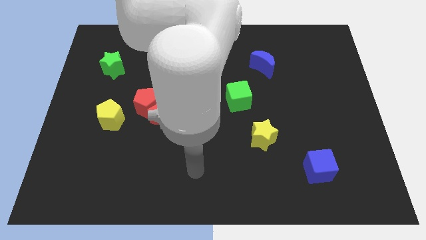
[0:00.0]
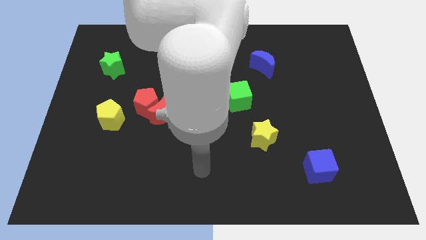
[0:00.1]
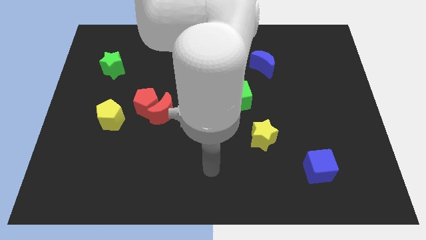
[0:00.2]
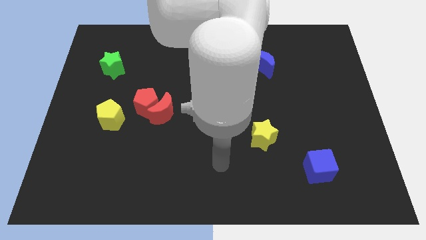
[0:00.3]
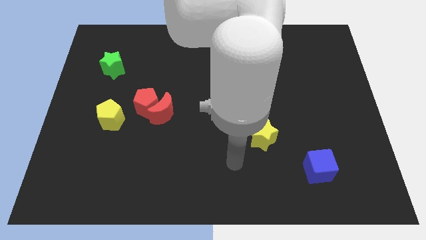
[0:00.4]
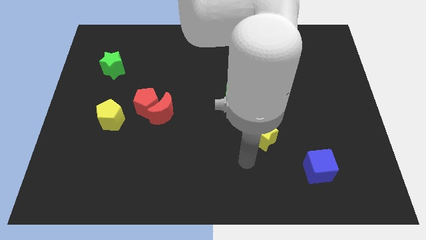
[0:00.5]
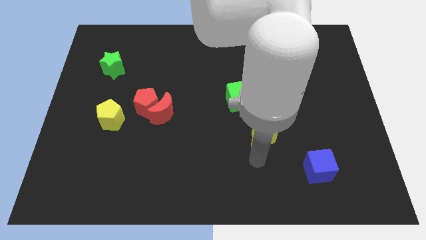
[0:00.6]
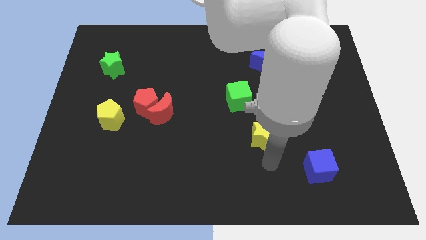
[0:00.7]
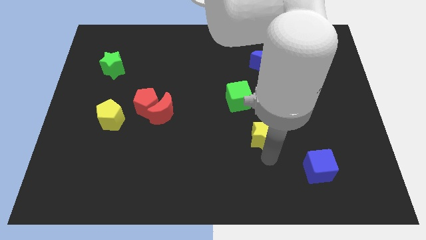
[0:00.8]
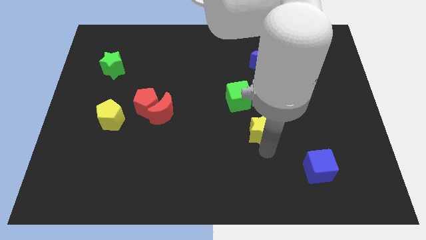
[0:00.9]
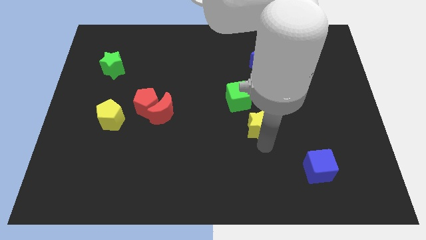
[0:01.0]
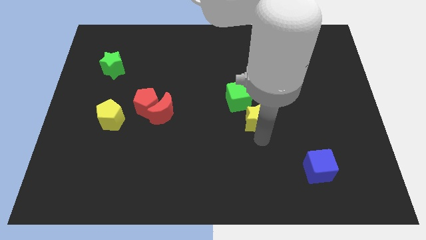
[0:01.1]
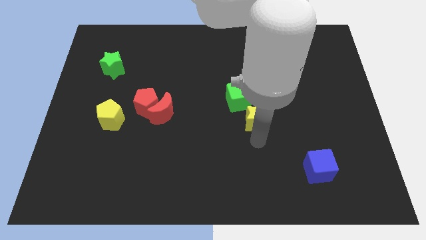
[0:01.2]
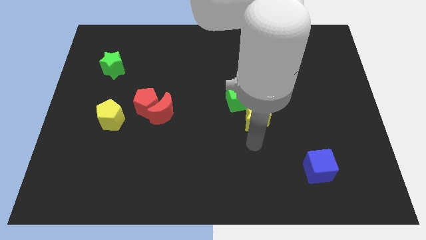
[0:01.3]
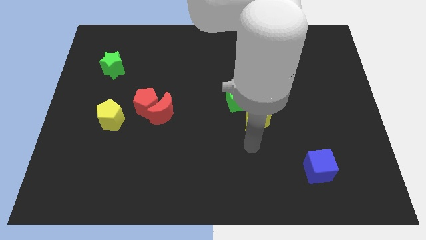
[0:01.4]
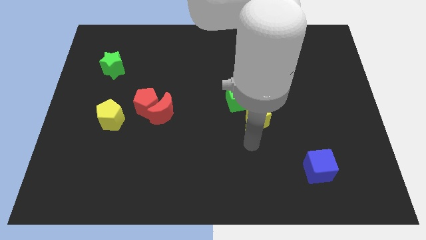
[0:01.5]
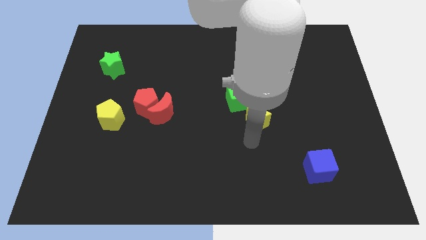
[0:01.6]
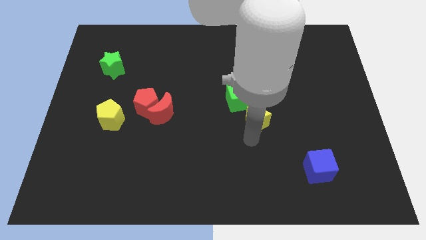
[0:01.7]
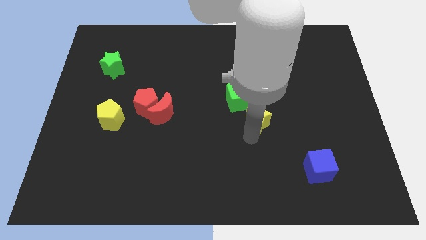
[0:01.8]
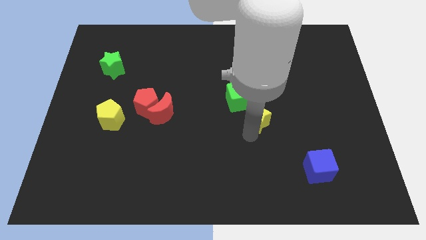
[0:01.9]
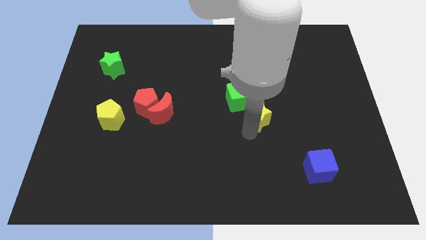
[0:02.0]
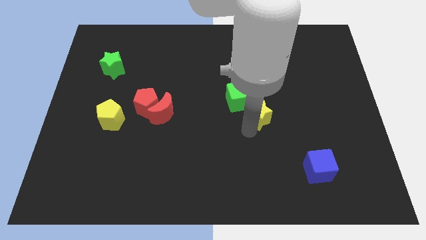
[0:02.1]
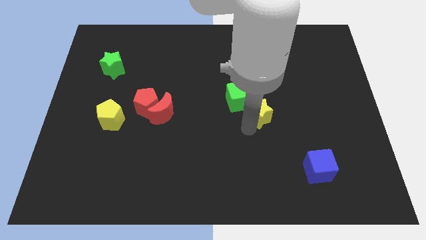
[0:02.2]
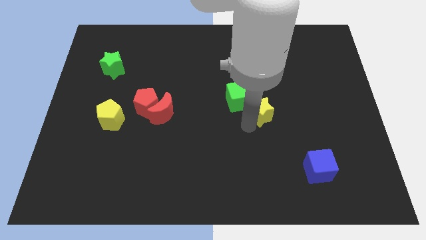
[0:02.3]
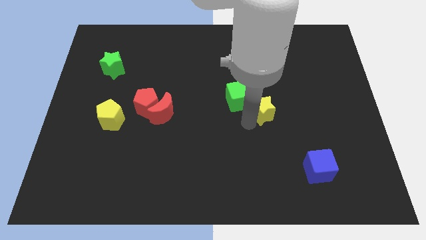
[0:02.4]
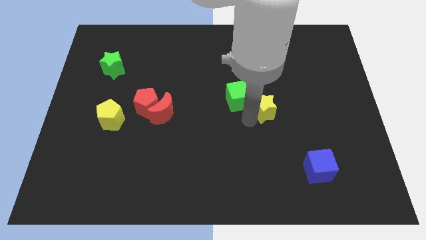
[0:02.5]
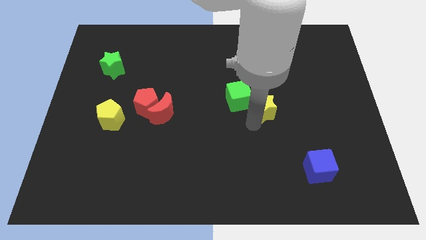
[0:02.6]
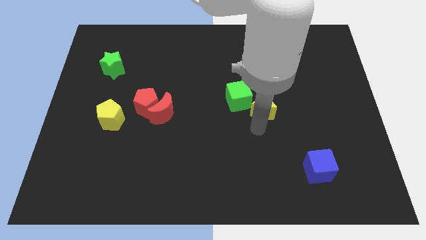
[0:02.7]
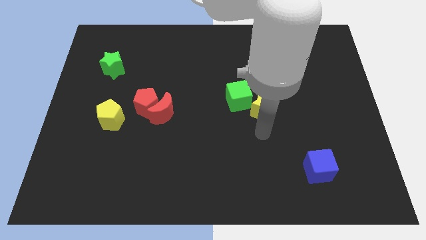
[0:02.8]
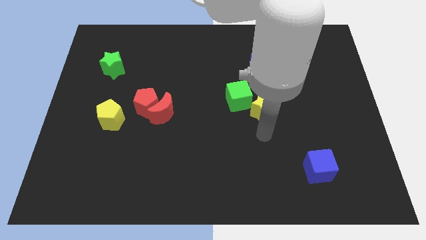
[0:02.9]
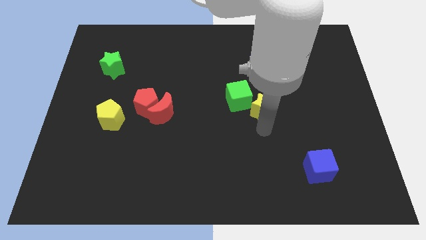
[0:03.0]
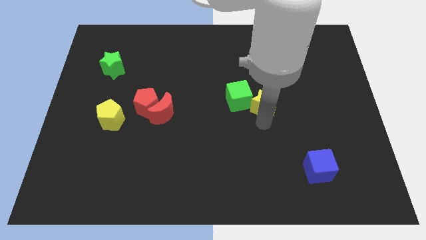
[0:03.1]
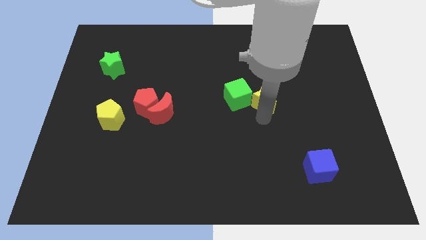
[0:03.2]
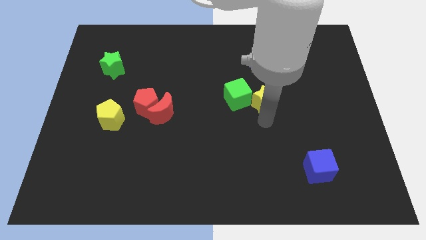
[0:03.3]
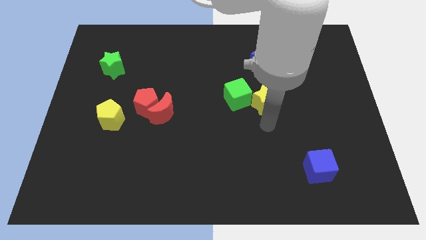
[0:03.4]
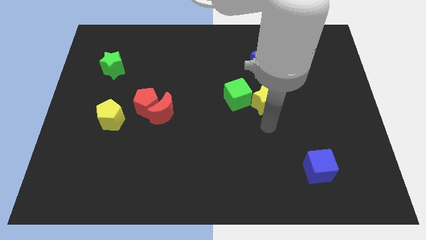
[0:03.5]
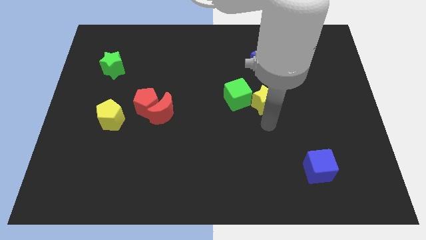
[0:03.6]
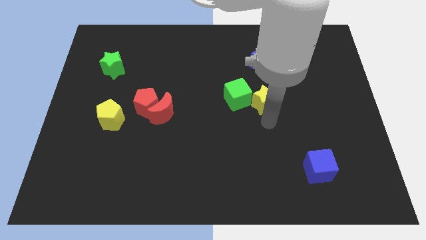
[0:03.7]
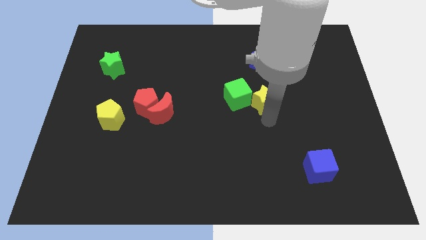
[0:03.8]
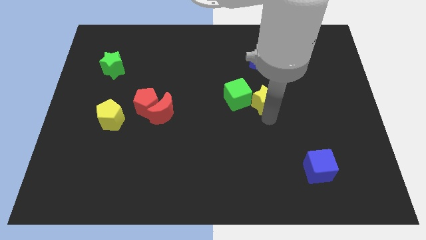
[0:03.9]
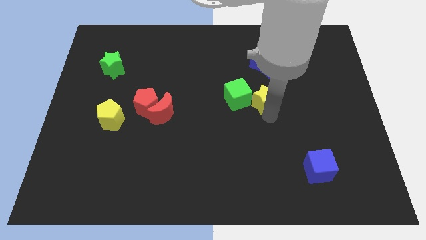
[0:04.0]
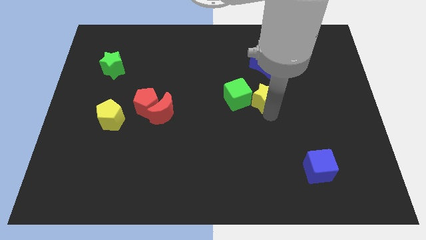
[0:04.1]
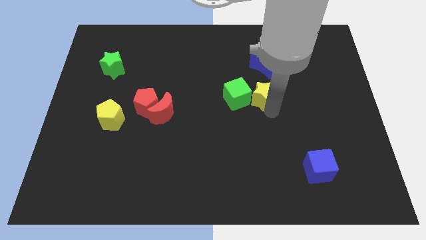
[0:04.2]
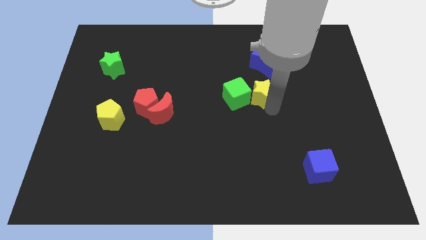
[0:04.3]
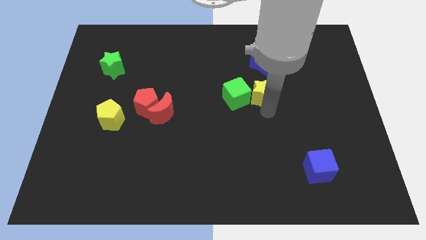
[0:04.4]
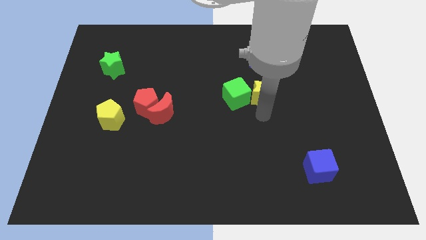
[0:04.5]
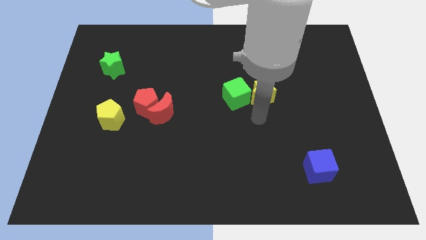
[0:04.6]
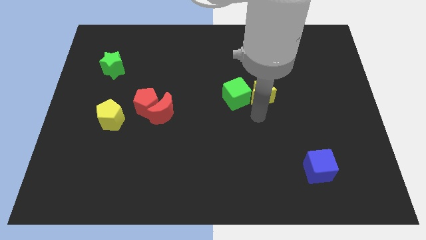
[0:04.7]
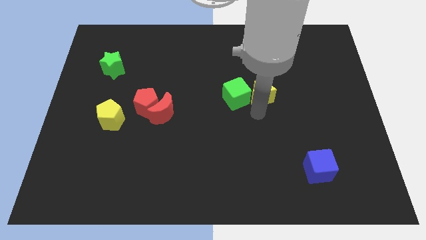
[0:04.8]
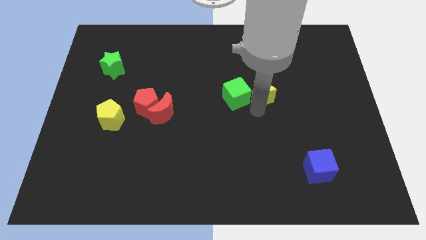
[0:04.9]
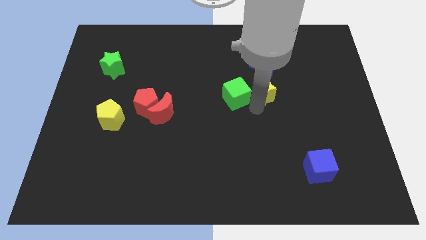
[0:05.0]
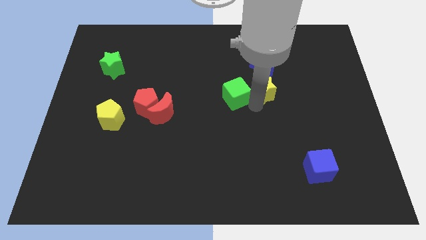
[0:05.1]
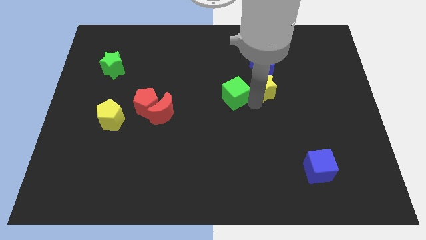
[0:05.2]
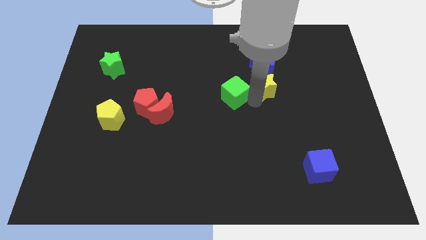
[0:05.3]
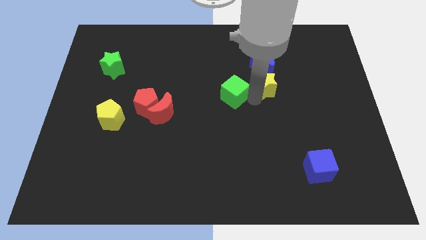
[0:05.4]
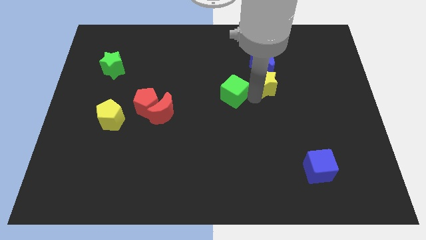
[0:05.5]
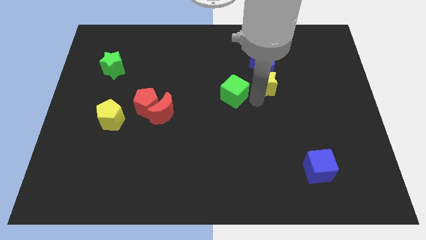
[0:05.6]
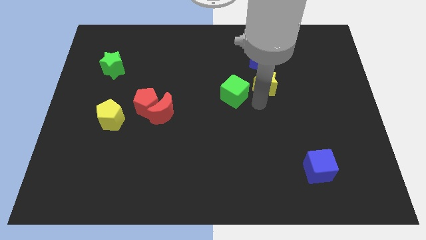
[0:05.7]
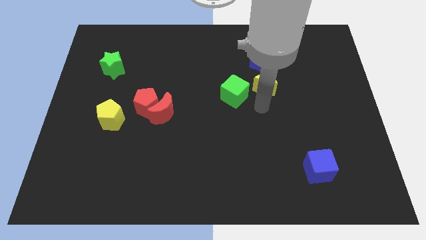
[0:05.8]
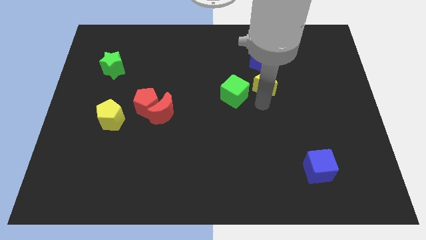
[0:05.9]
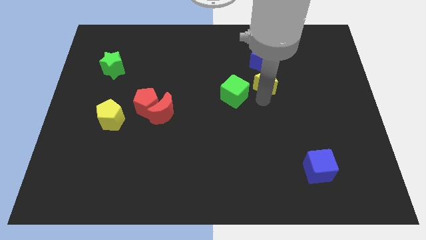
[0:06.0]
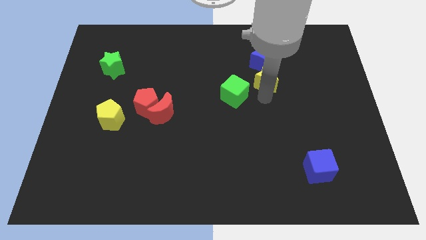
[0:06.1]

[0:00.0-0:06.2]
slide the yellow star close to the blue moon
